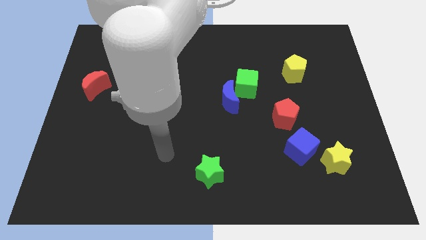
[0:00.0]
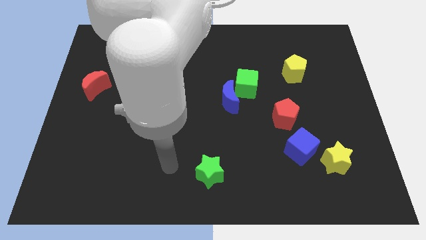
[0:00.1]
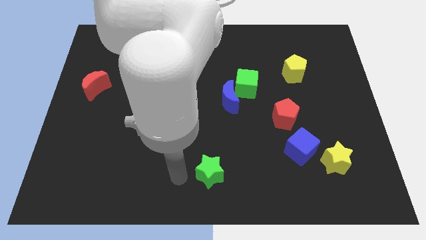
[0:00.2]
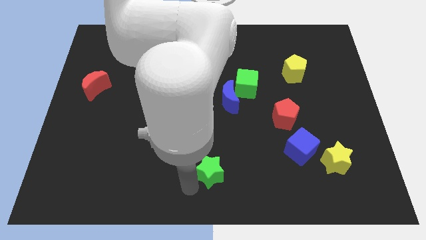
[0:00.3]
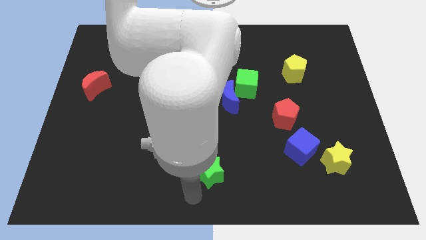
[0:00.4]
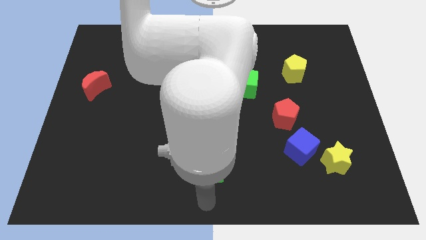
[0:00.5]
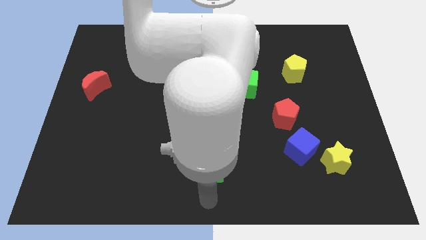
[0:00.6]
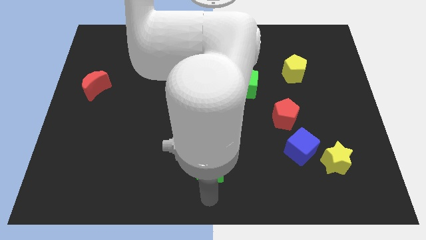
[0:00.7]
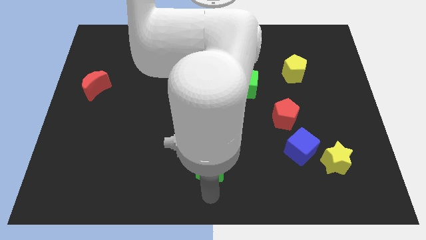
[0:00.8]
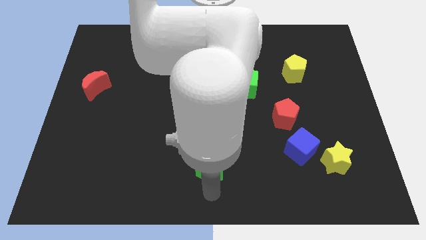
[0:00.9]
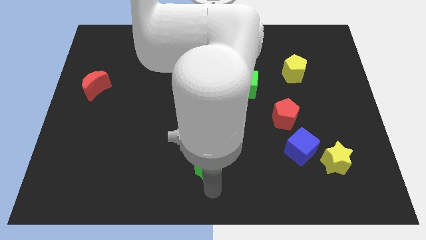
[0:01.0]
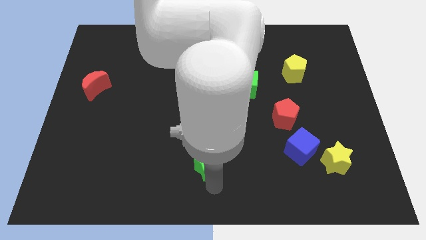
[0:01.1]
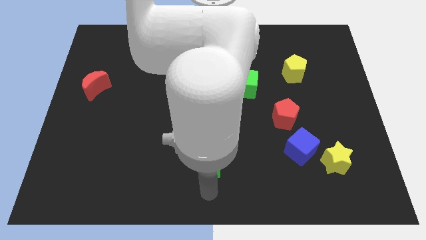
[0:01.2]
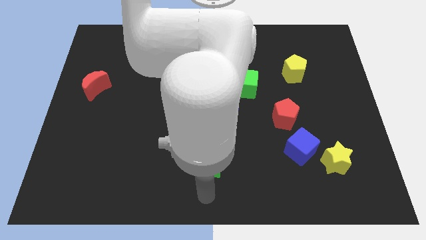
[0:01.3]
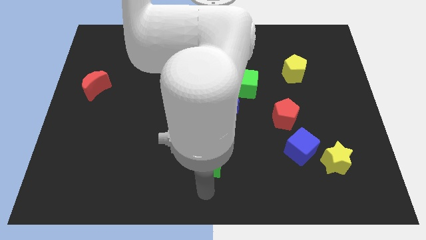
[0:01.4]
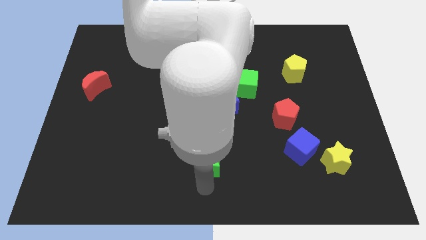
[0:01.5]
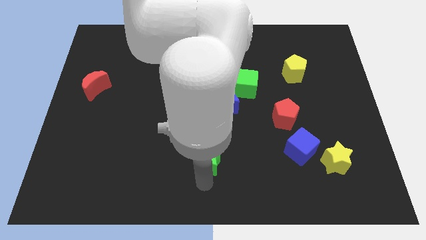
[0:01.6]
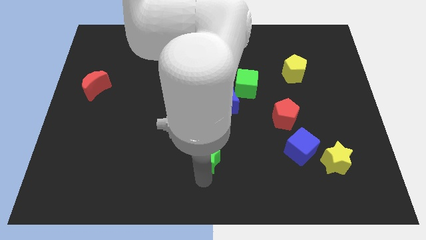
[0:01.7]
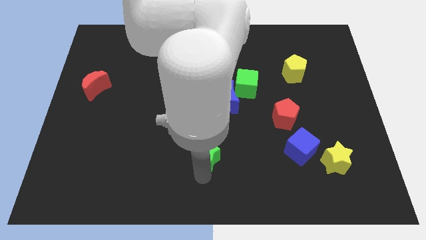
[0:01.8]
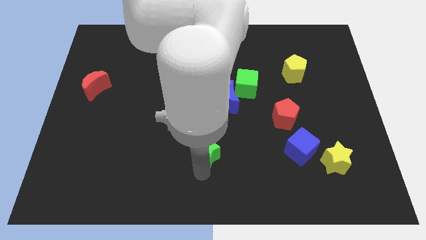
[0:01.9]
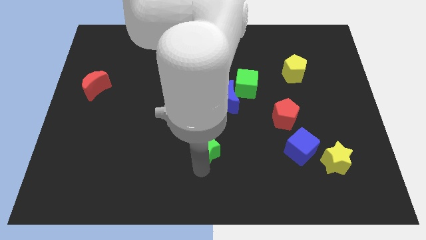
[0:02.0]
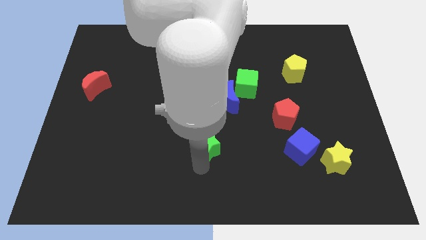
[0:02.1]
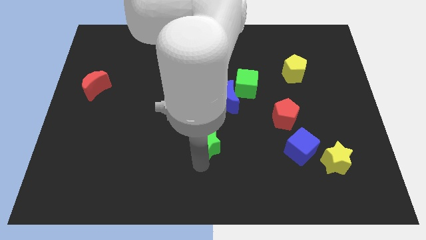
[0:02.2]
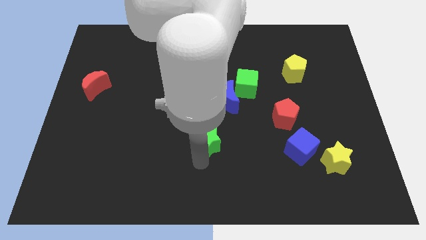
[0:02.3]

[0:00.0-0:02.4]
slide the green star a bit upwards

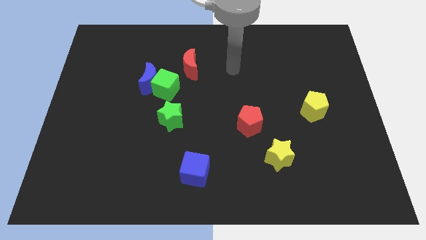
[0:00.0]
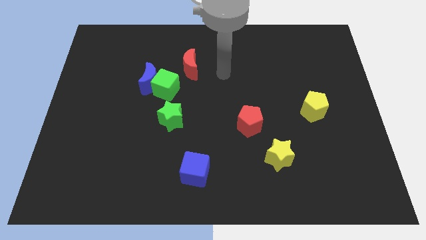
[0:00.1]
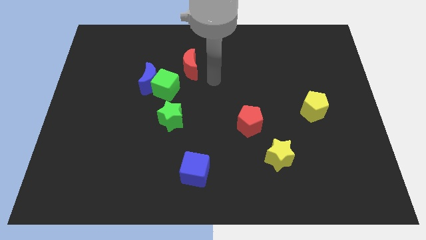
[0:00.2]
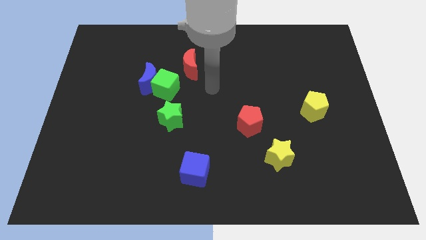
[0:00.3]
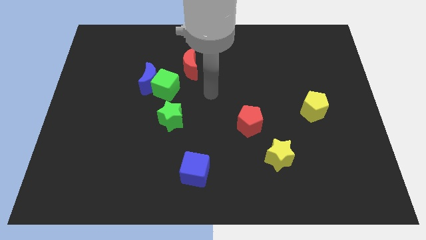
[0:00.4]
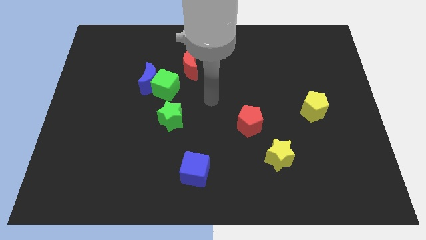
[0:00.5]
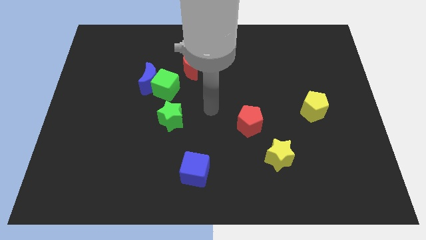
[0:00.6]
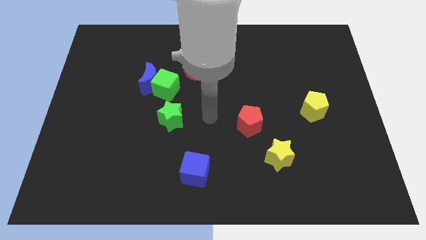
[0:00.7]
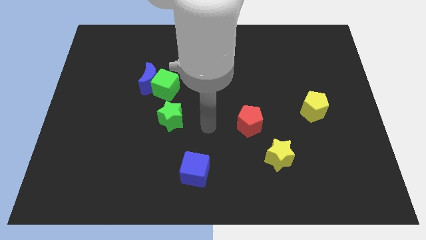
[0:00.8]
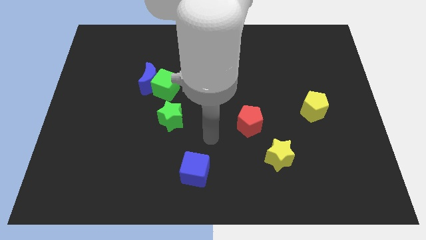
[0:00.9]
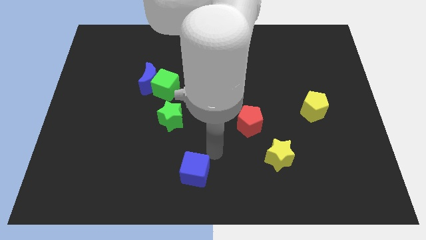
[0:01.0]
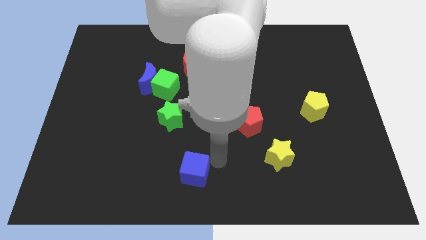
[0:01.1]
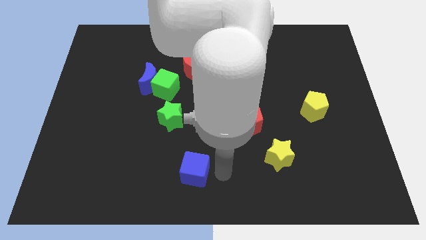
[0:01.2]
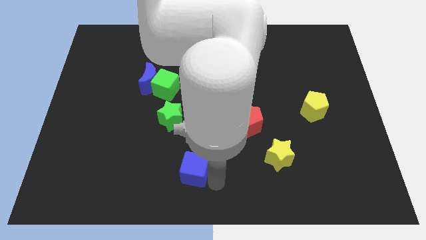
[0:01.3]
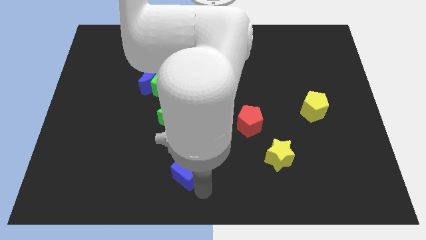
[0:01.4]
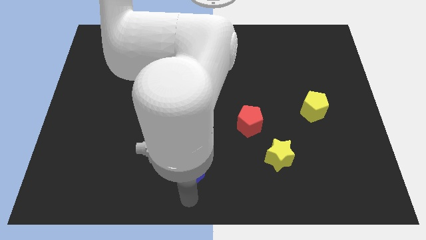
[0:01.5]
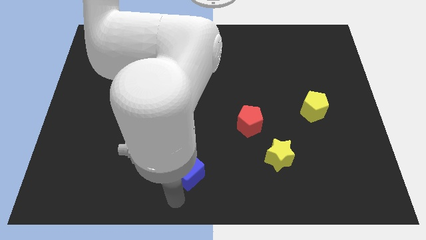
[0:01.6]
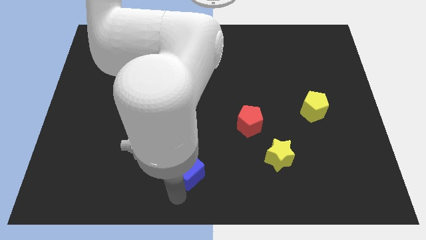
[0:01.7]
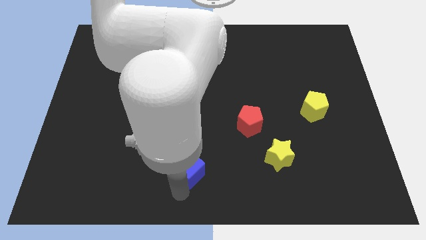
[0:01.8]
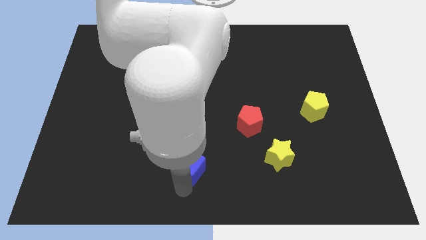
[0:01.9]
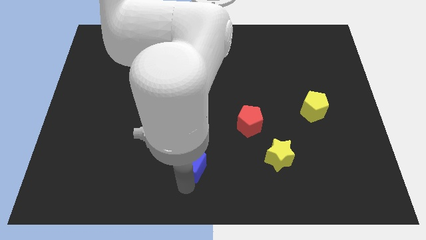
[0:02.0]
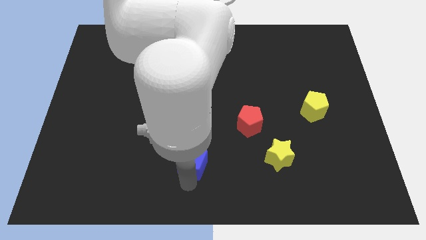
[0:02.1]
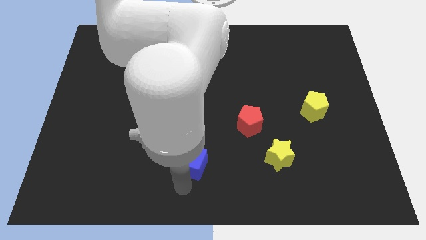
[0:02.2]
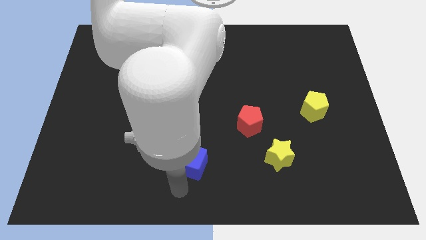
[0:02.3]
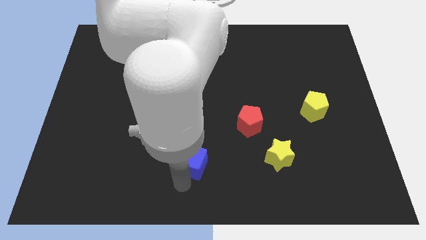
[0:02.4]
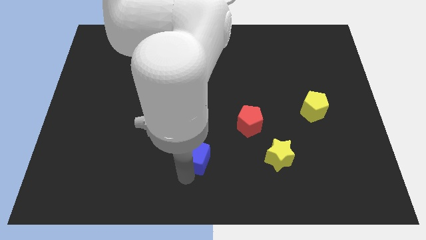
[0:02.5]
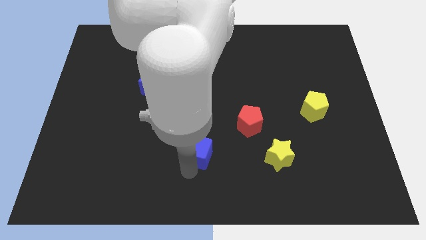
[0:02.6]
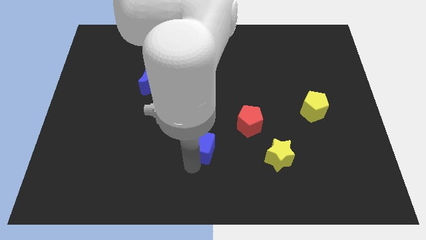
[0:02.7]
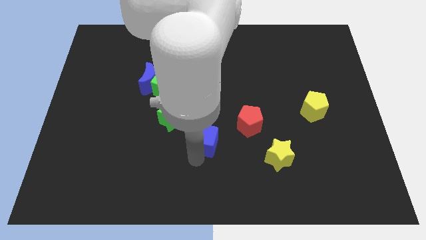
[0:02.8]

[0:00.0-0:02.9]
push the blue cube slightly up

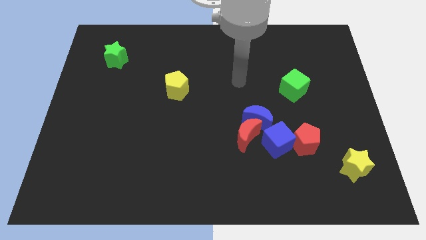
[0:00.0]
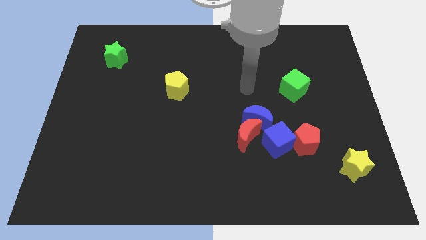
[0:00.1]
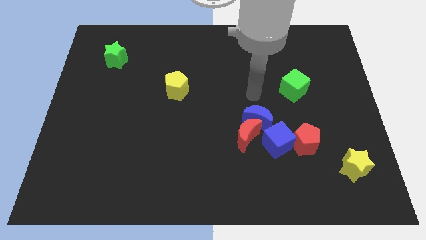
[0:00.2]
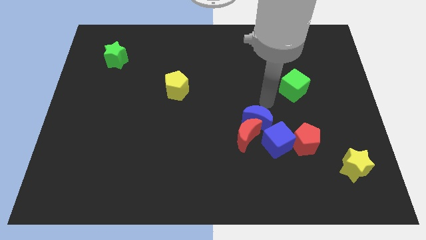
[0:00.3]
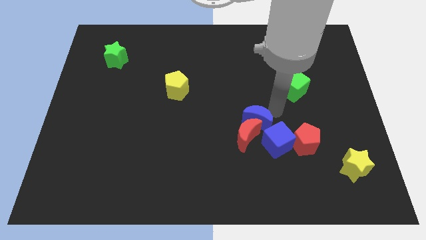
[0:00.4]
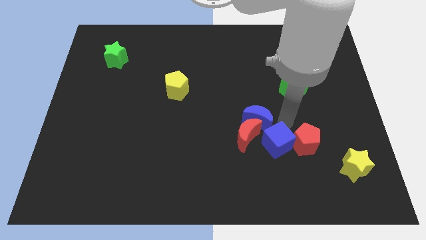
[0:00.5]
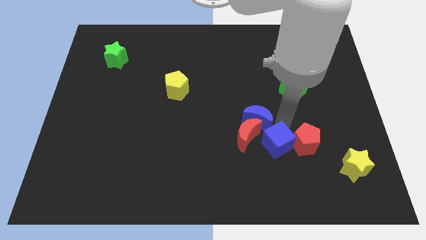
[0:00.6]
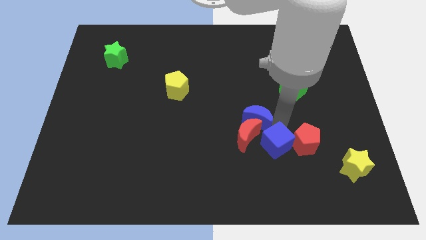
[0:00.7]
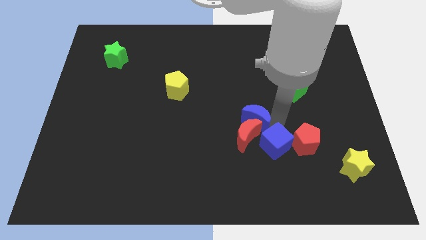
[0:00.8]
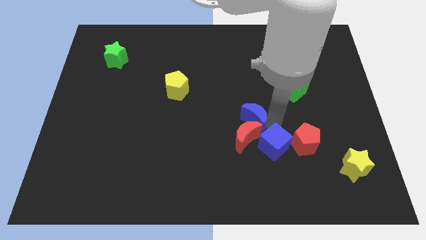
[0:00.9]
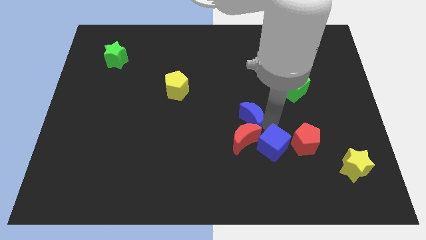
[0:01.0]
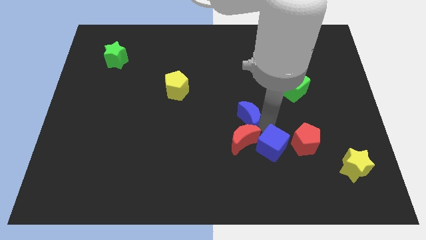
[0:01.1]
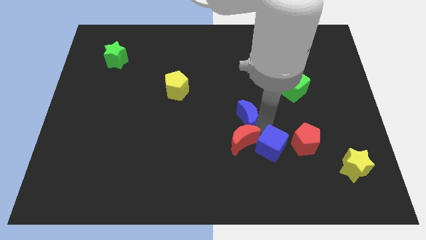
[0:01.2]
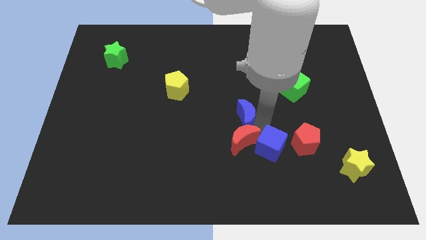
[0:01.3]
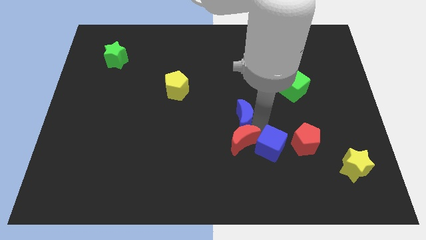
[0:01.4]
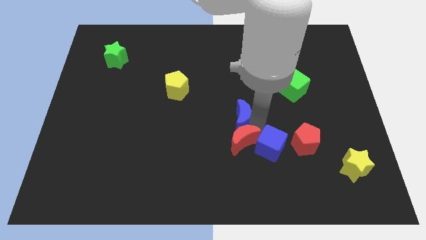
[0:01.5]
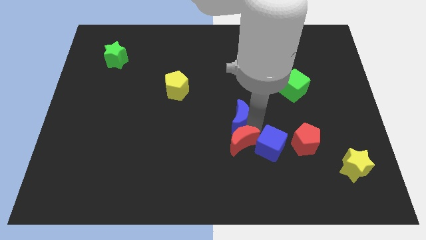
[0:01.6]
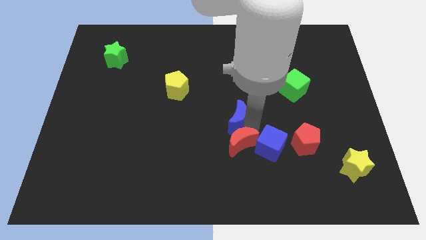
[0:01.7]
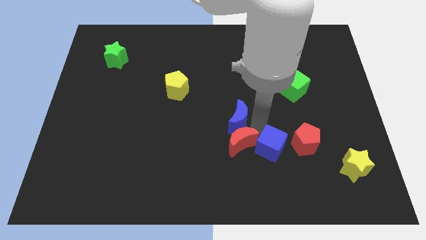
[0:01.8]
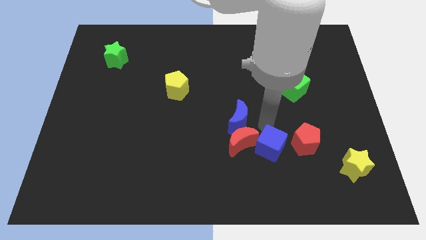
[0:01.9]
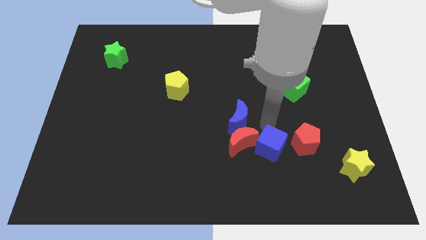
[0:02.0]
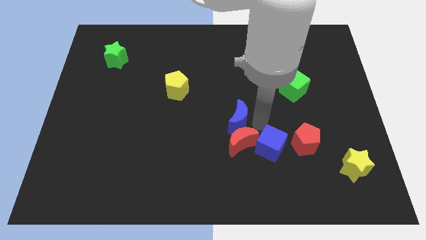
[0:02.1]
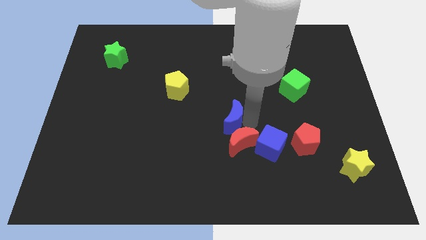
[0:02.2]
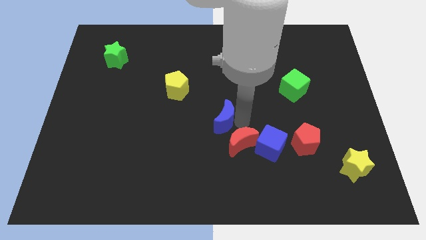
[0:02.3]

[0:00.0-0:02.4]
slightly slide the blue moon to the left

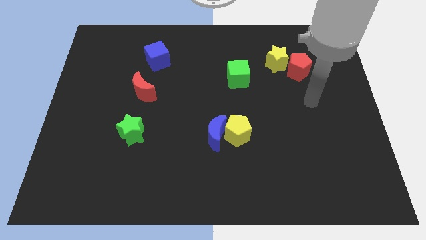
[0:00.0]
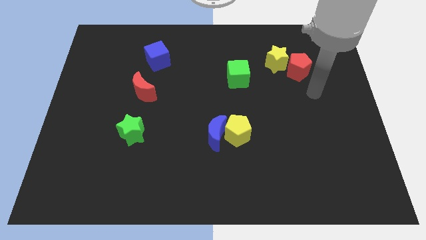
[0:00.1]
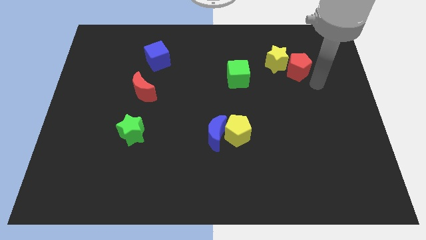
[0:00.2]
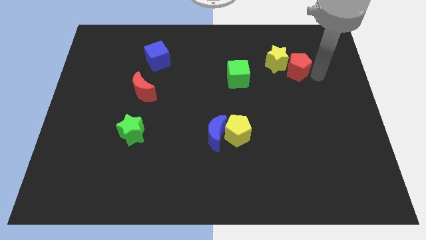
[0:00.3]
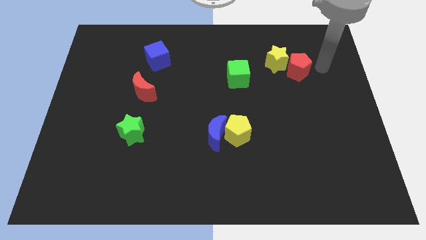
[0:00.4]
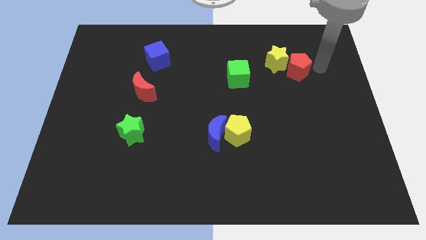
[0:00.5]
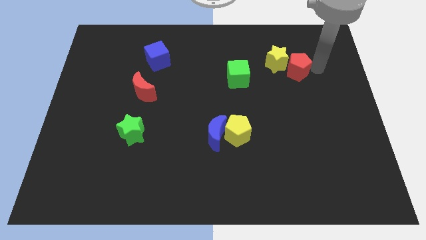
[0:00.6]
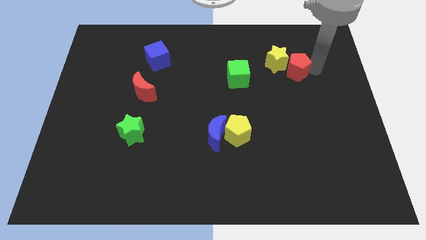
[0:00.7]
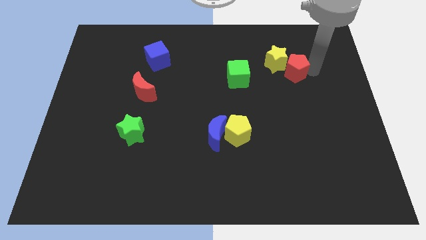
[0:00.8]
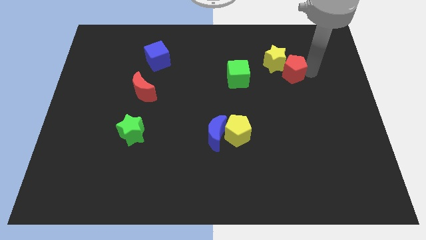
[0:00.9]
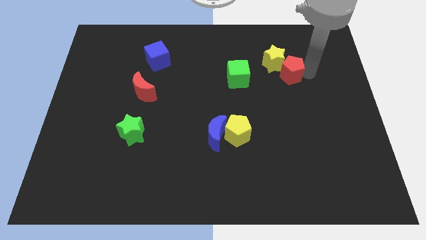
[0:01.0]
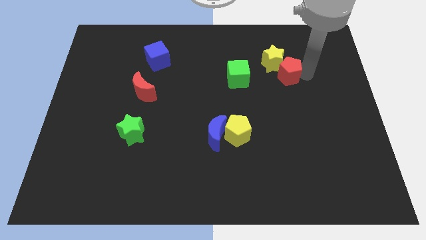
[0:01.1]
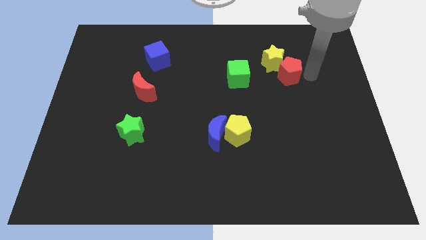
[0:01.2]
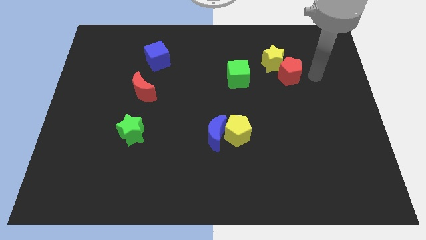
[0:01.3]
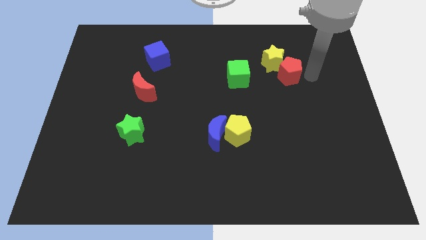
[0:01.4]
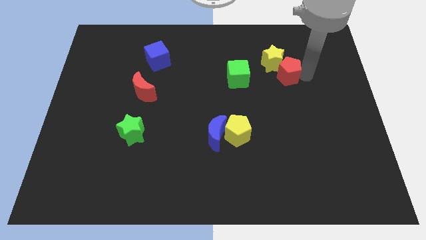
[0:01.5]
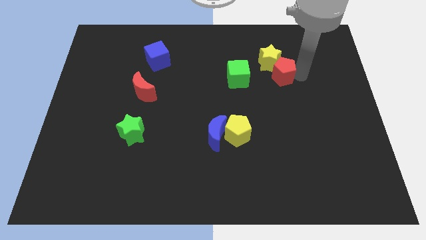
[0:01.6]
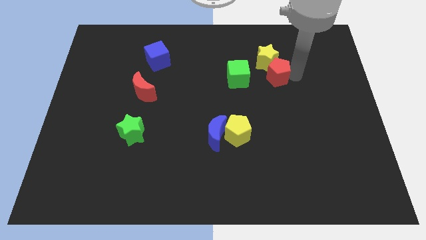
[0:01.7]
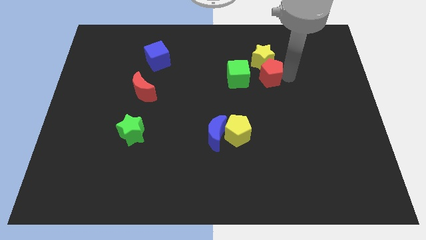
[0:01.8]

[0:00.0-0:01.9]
slide the red pentagon to the left a bit
